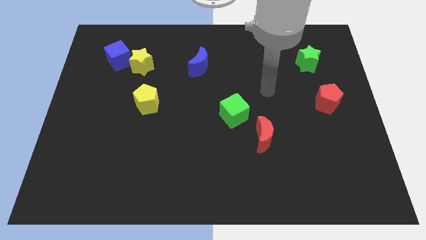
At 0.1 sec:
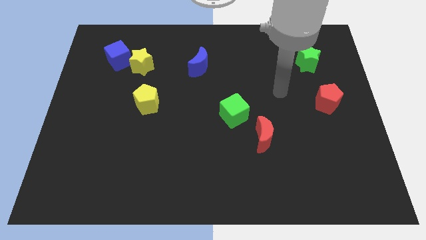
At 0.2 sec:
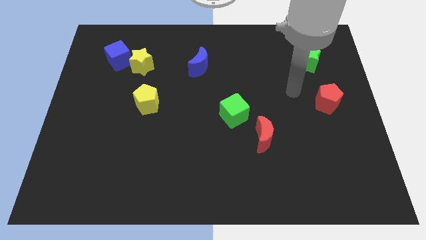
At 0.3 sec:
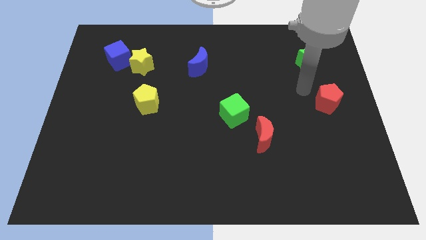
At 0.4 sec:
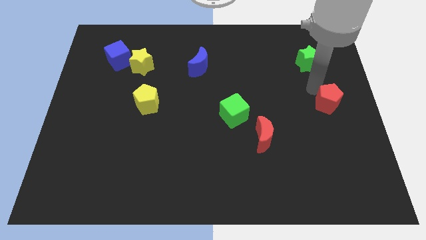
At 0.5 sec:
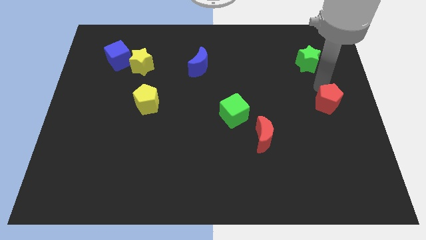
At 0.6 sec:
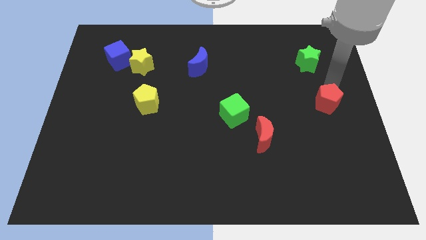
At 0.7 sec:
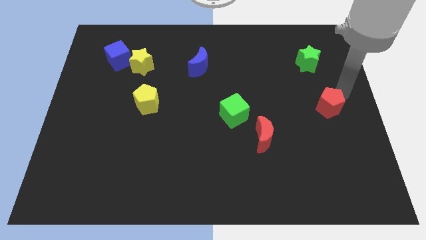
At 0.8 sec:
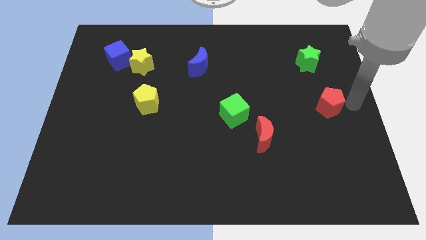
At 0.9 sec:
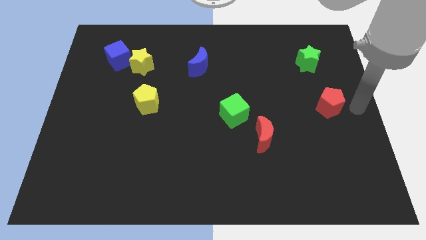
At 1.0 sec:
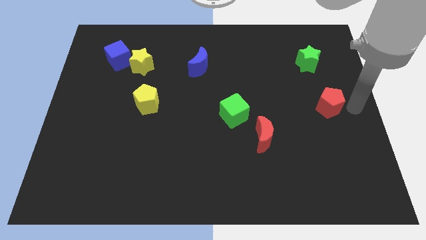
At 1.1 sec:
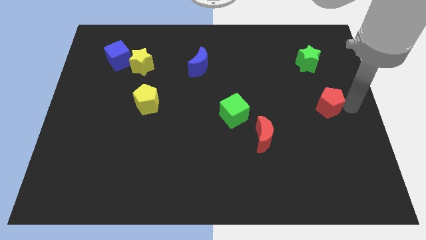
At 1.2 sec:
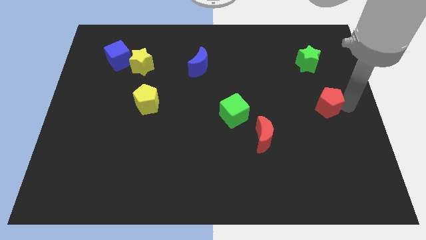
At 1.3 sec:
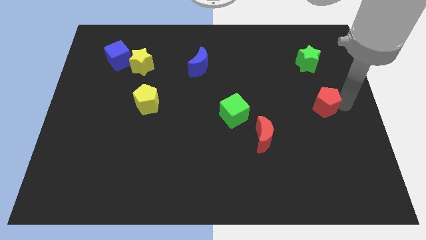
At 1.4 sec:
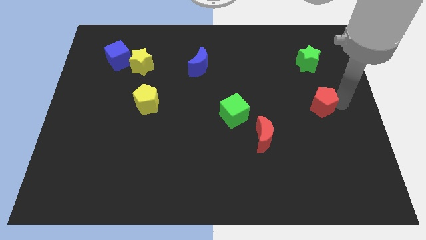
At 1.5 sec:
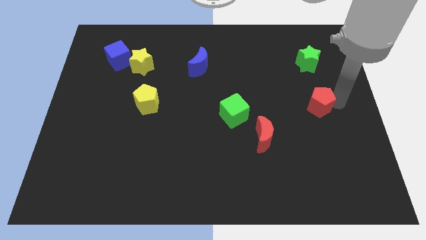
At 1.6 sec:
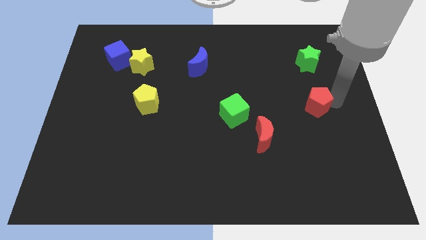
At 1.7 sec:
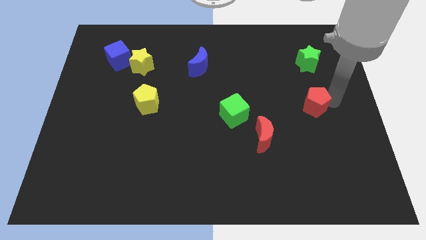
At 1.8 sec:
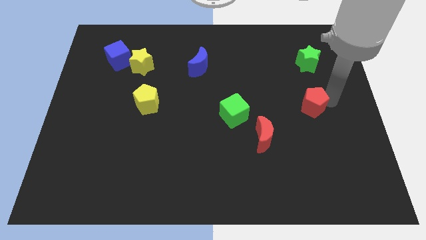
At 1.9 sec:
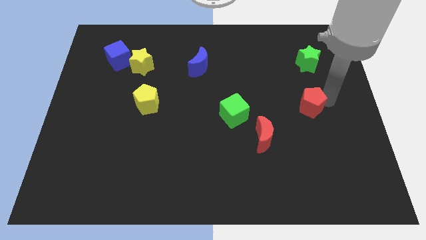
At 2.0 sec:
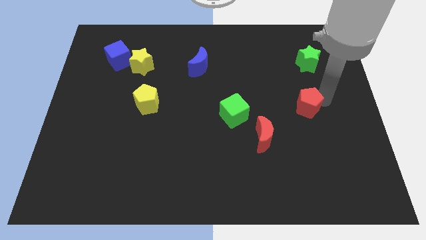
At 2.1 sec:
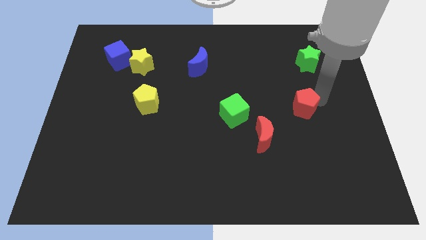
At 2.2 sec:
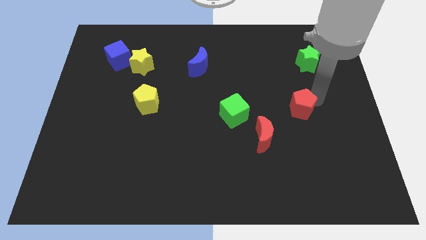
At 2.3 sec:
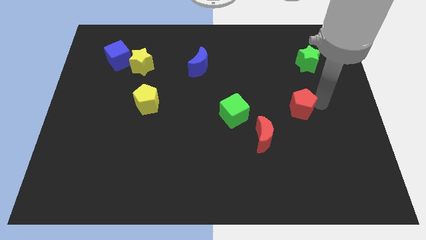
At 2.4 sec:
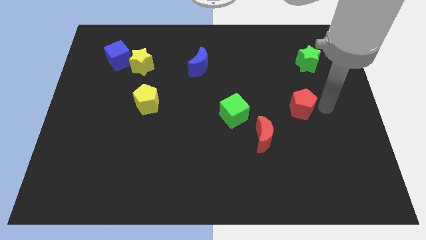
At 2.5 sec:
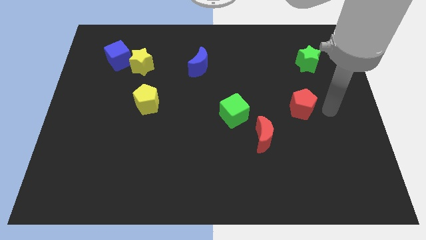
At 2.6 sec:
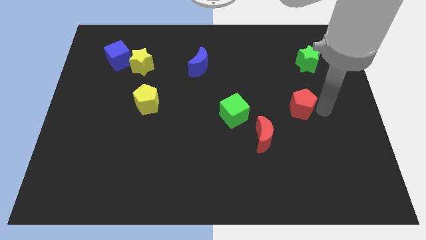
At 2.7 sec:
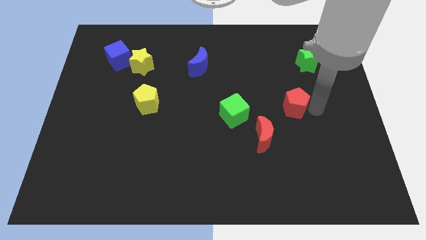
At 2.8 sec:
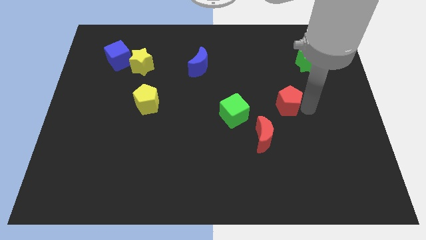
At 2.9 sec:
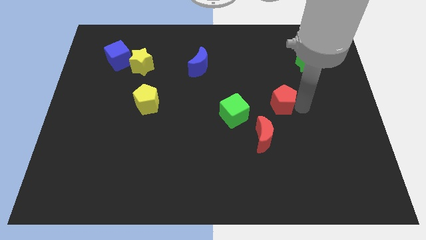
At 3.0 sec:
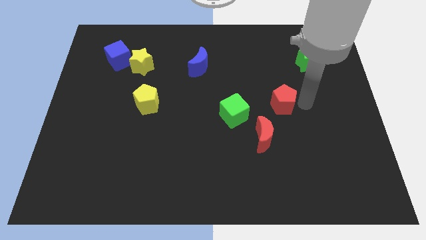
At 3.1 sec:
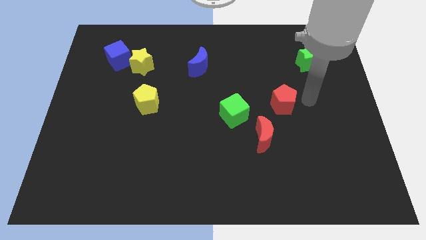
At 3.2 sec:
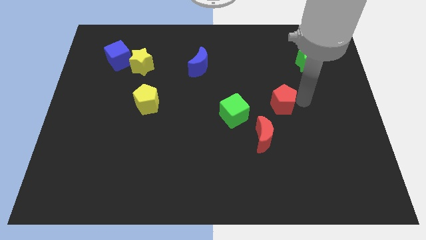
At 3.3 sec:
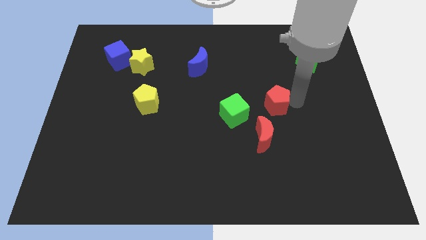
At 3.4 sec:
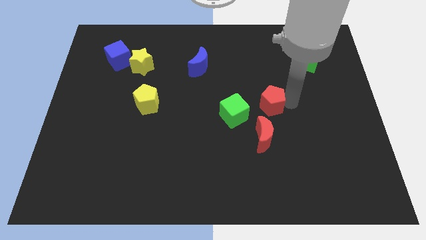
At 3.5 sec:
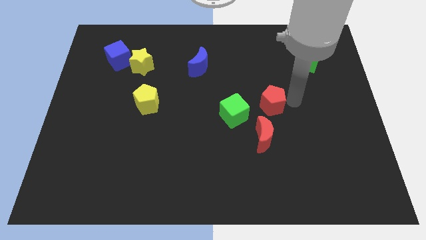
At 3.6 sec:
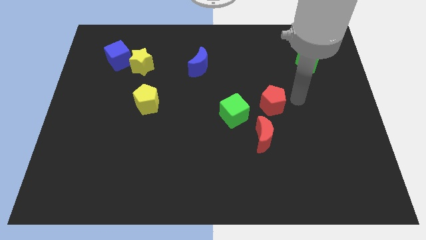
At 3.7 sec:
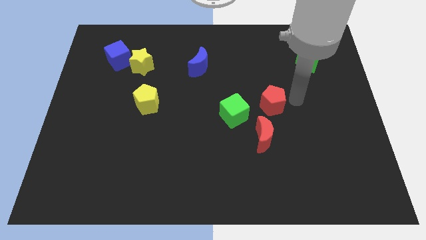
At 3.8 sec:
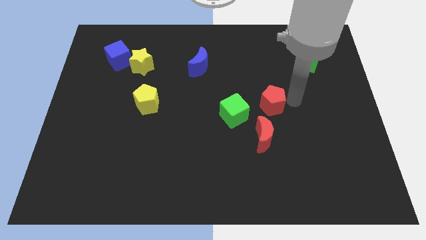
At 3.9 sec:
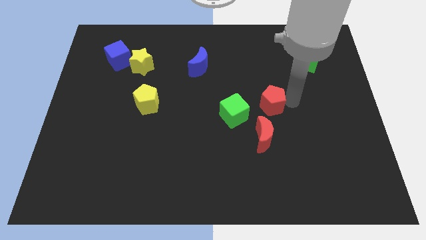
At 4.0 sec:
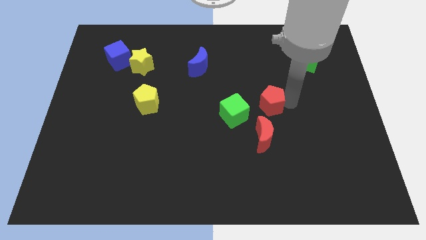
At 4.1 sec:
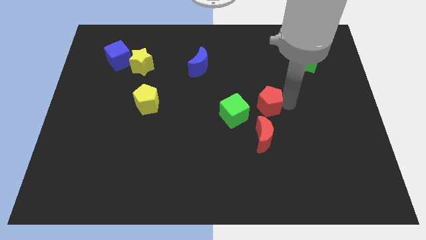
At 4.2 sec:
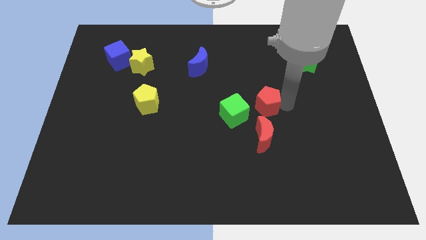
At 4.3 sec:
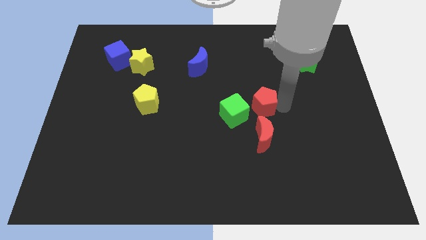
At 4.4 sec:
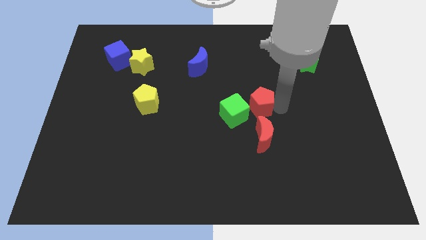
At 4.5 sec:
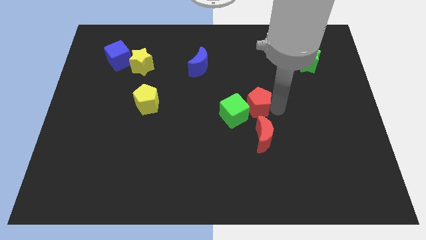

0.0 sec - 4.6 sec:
push the red pentagon towards the green cube

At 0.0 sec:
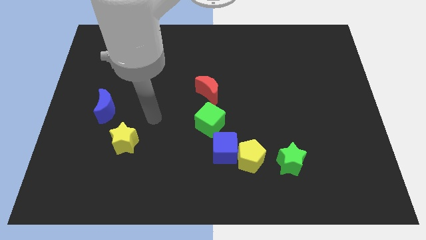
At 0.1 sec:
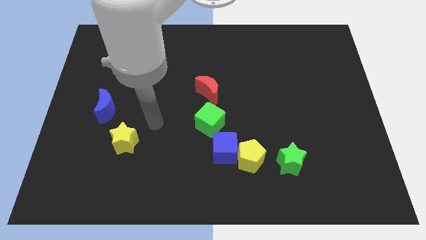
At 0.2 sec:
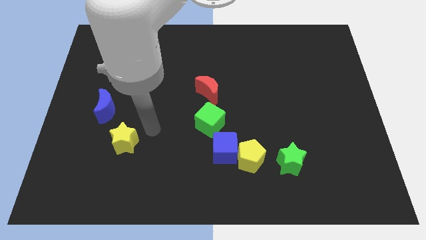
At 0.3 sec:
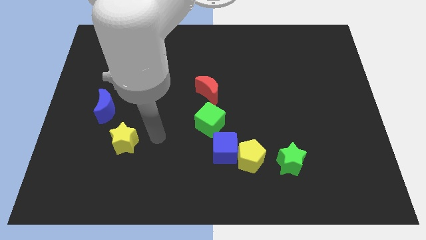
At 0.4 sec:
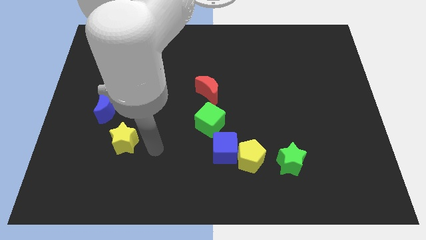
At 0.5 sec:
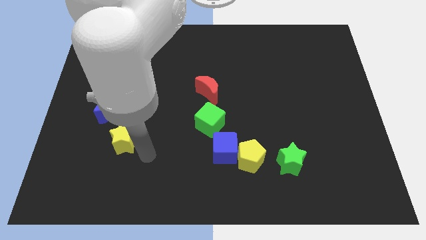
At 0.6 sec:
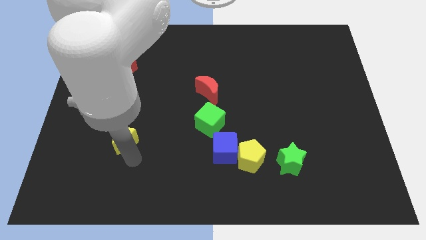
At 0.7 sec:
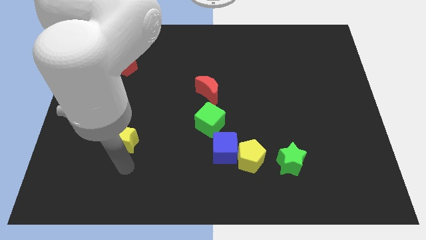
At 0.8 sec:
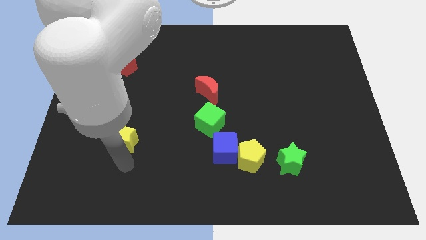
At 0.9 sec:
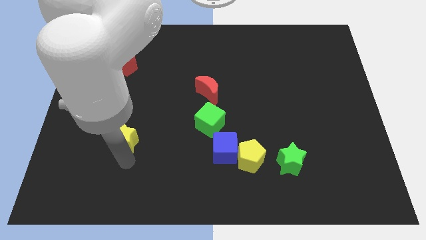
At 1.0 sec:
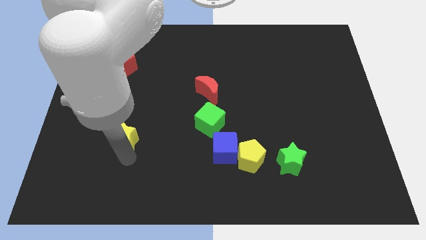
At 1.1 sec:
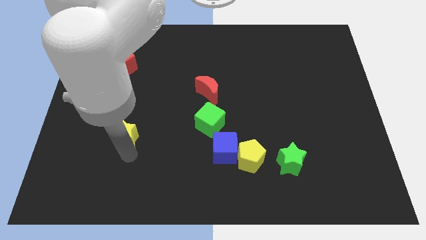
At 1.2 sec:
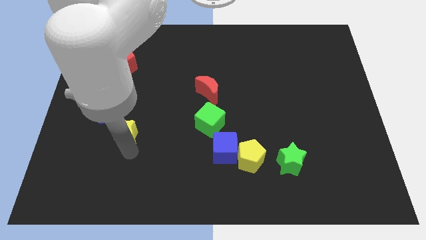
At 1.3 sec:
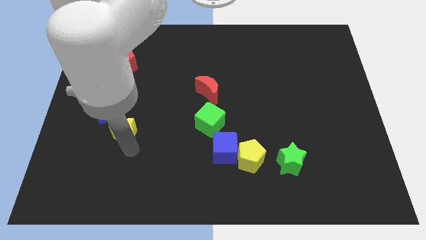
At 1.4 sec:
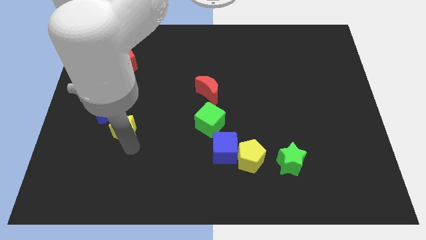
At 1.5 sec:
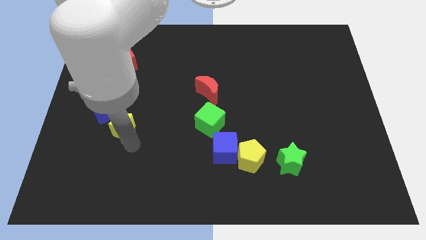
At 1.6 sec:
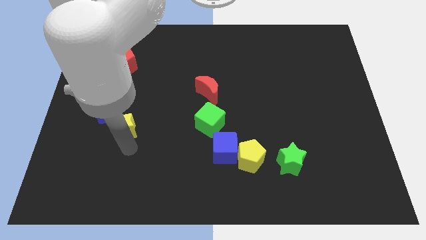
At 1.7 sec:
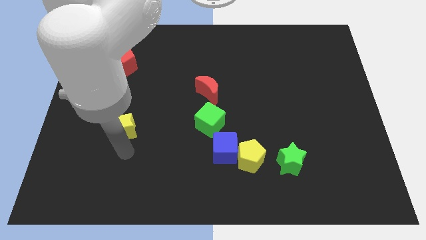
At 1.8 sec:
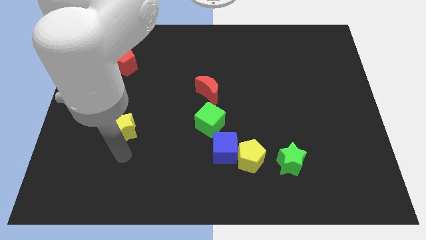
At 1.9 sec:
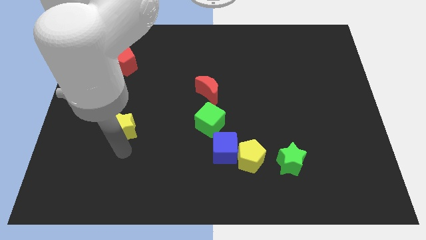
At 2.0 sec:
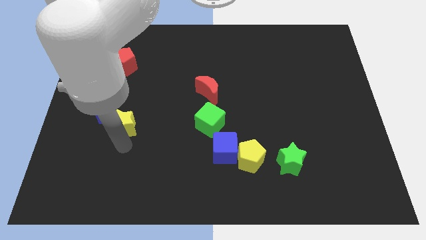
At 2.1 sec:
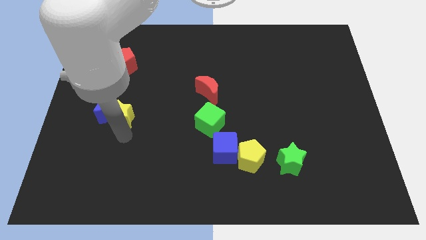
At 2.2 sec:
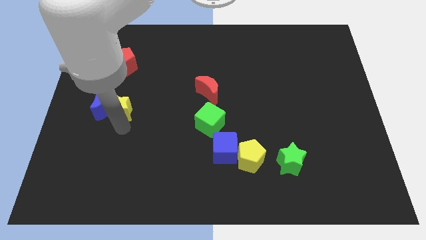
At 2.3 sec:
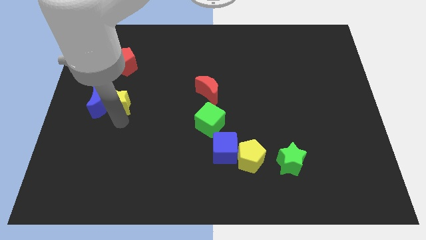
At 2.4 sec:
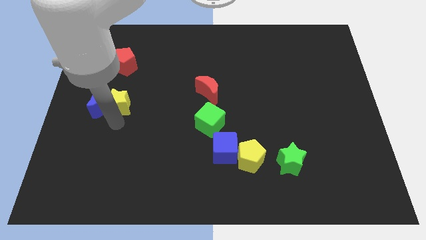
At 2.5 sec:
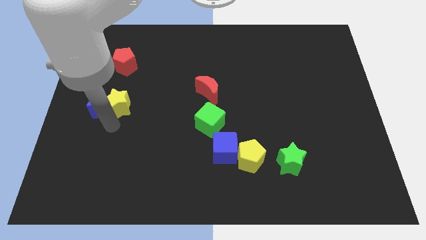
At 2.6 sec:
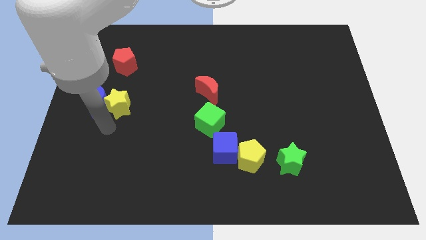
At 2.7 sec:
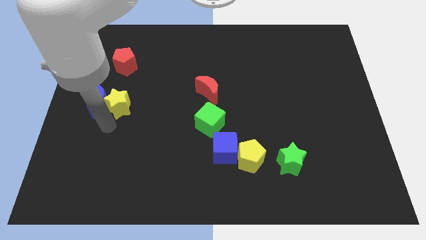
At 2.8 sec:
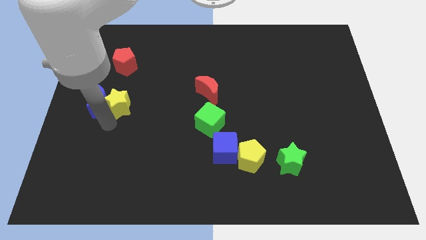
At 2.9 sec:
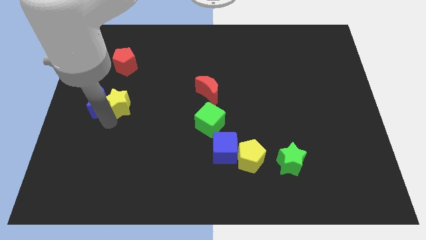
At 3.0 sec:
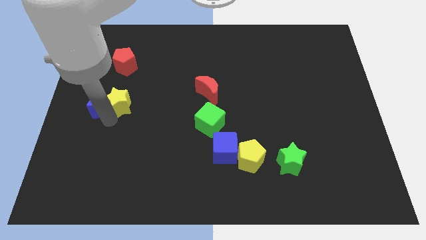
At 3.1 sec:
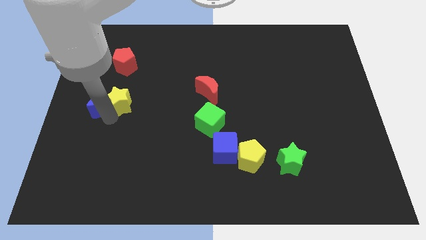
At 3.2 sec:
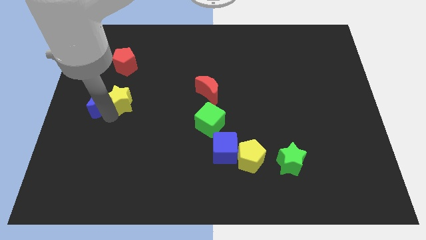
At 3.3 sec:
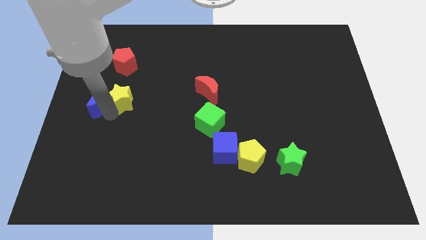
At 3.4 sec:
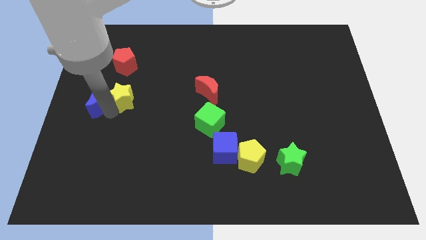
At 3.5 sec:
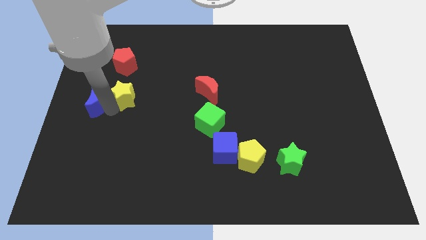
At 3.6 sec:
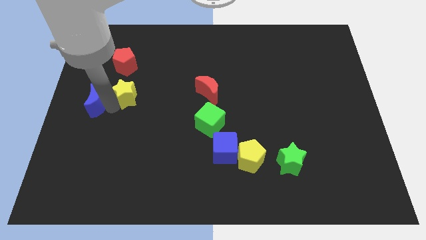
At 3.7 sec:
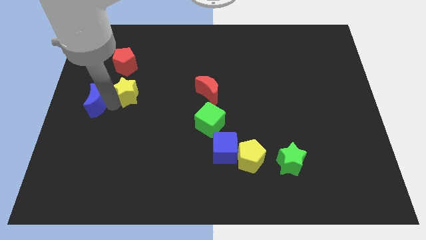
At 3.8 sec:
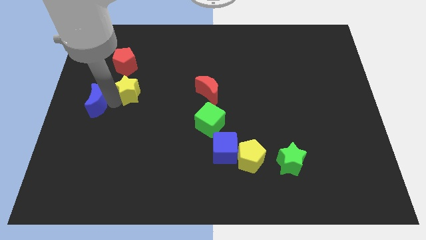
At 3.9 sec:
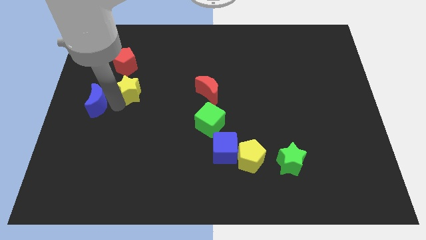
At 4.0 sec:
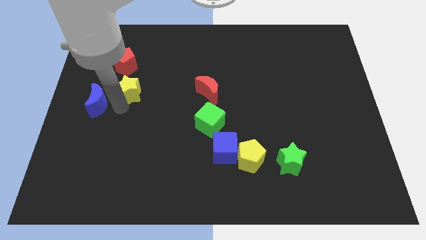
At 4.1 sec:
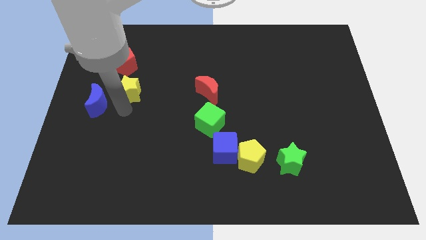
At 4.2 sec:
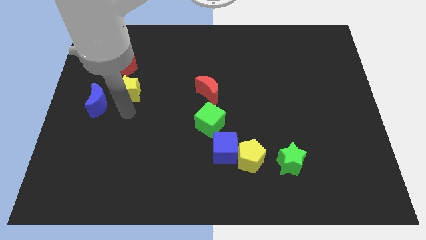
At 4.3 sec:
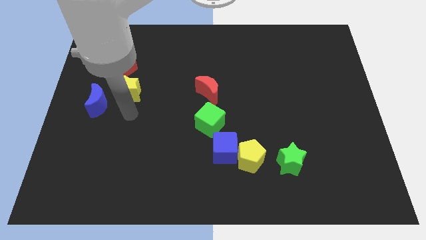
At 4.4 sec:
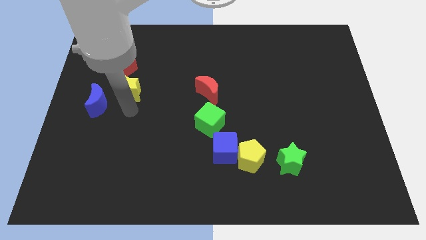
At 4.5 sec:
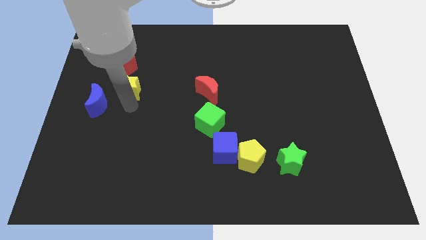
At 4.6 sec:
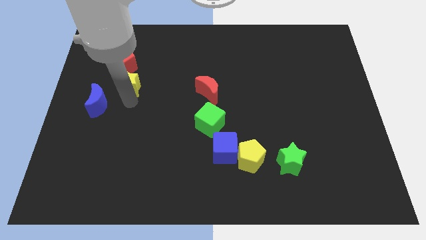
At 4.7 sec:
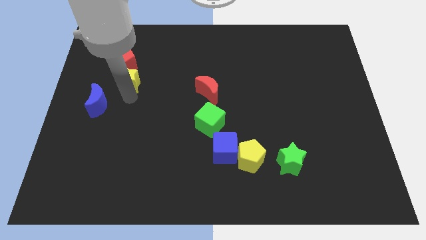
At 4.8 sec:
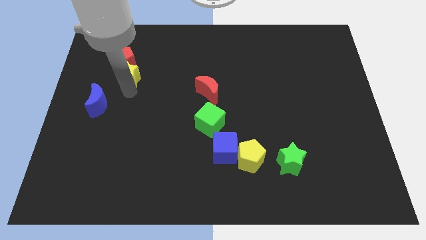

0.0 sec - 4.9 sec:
move the yellow star next to the red pentagon
